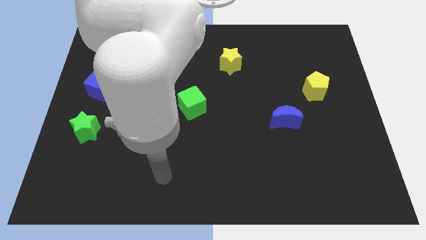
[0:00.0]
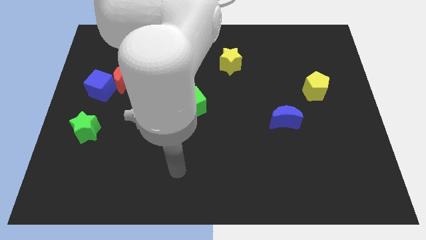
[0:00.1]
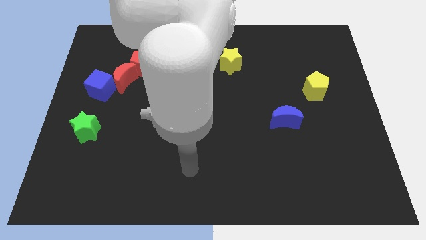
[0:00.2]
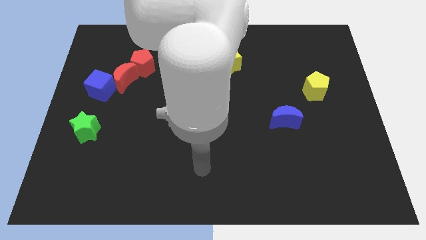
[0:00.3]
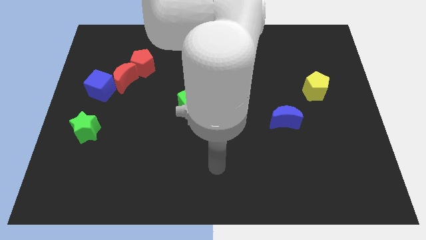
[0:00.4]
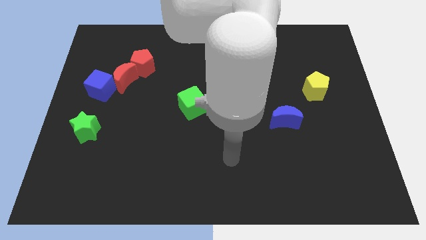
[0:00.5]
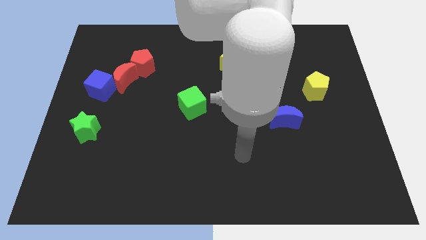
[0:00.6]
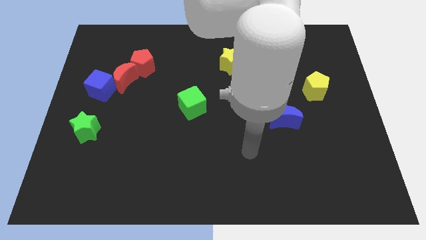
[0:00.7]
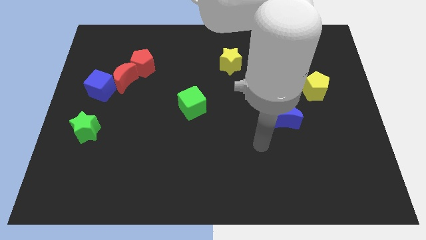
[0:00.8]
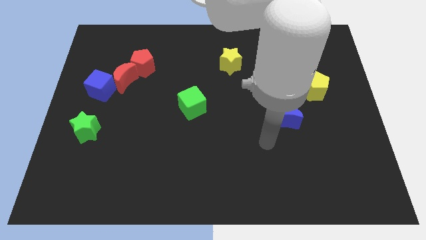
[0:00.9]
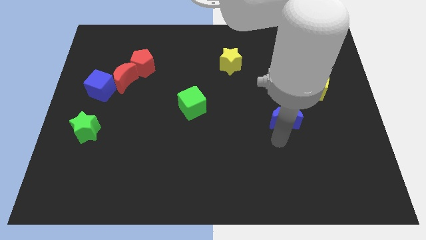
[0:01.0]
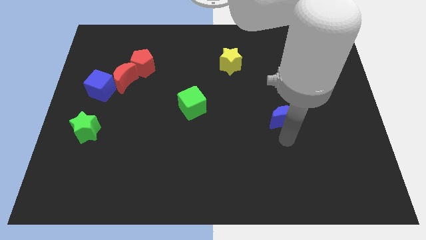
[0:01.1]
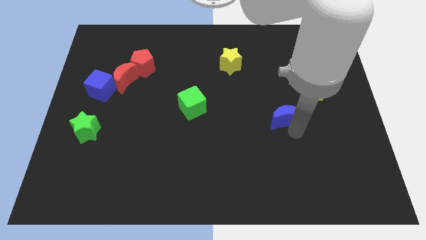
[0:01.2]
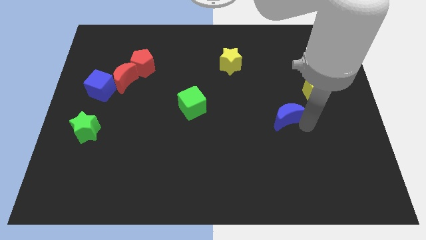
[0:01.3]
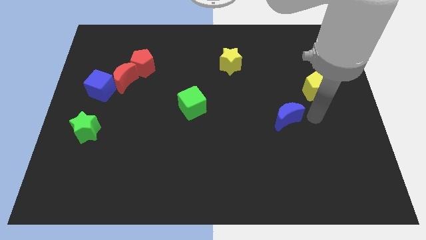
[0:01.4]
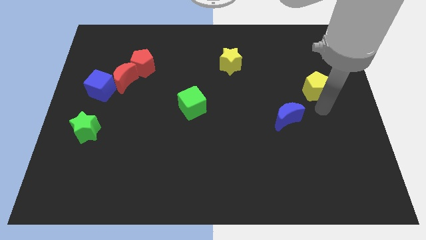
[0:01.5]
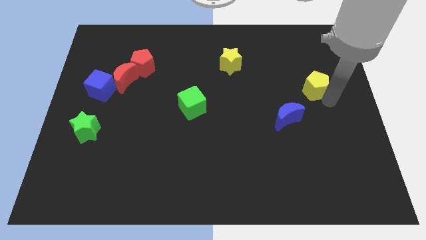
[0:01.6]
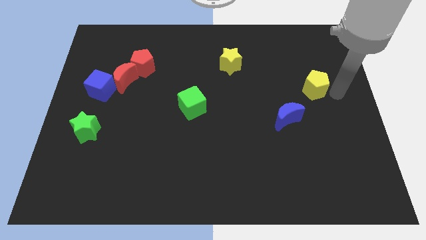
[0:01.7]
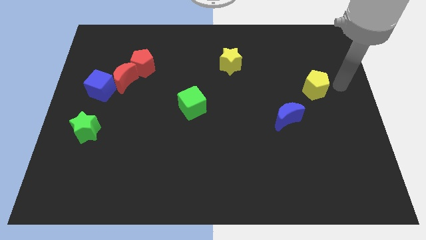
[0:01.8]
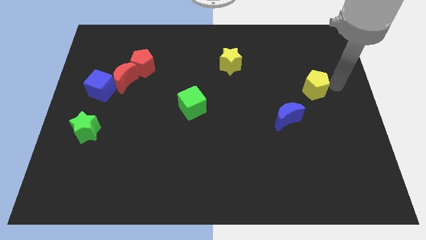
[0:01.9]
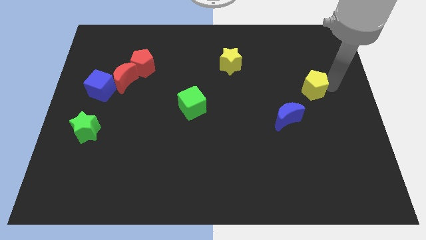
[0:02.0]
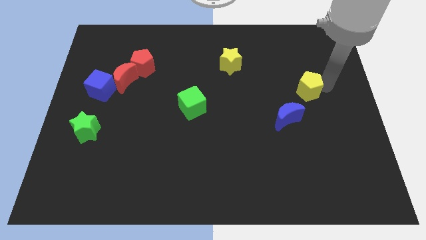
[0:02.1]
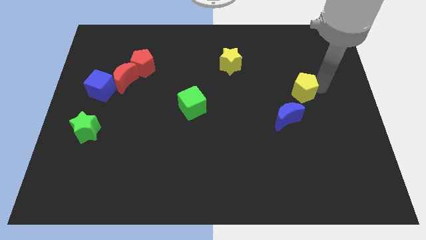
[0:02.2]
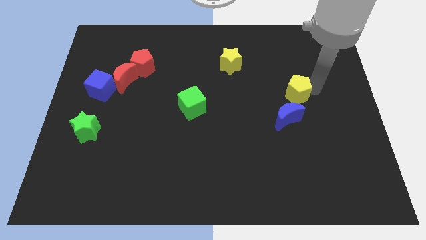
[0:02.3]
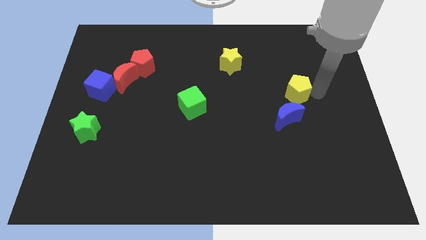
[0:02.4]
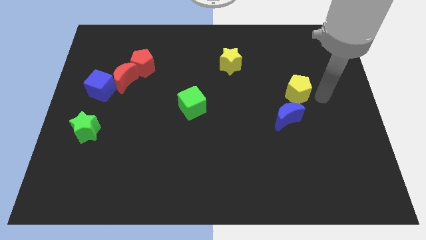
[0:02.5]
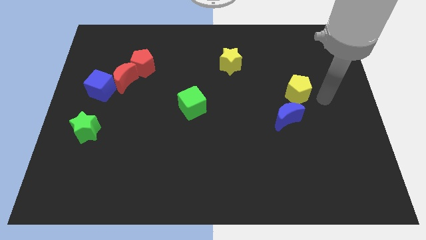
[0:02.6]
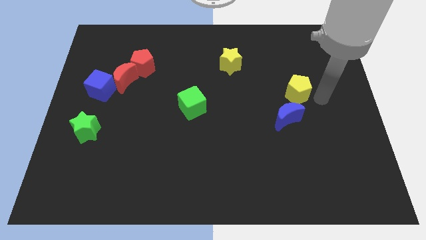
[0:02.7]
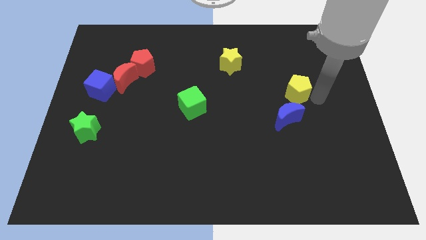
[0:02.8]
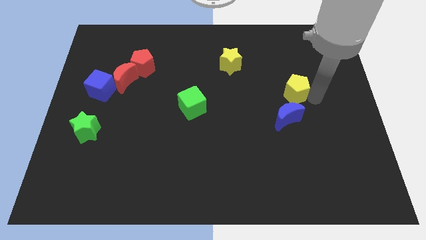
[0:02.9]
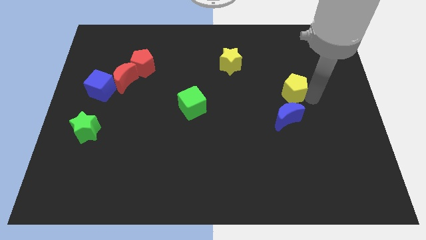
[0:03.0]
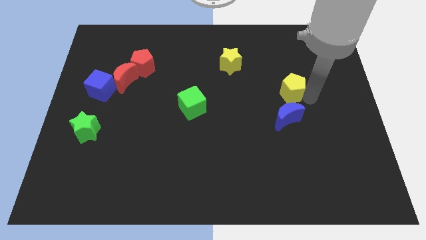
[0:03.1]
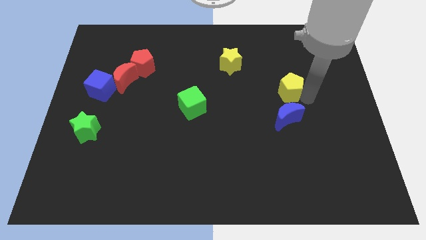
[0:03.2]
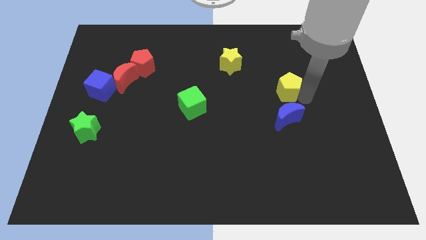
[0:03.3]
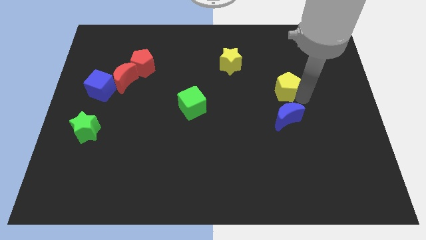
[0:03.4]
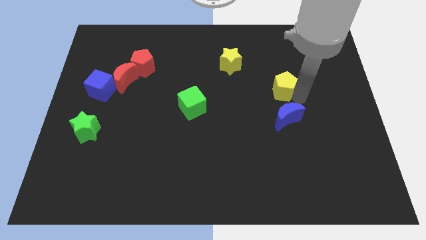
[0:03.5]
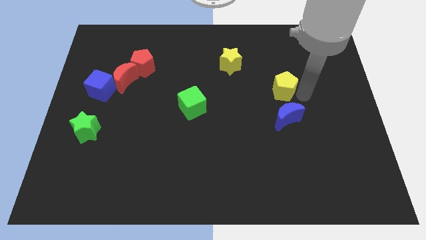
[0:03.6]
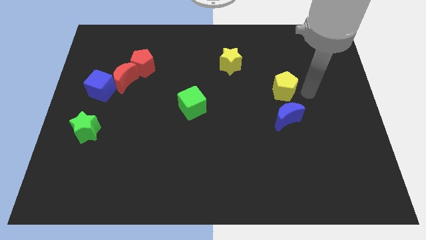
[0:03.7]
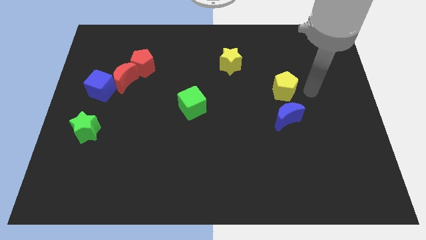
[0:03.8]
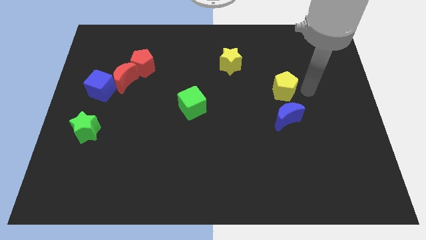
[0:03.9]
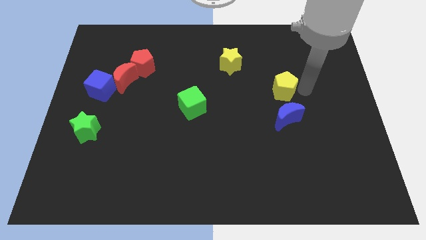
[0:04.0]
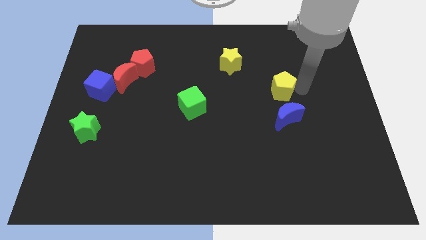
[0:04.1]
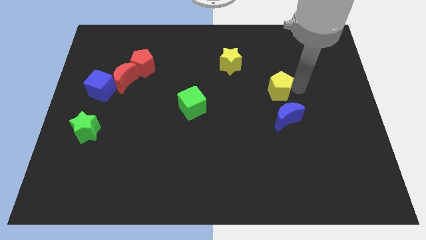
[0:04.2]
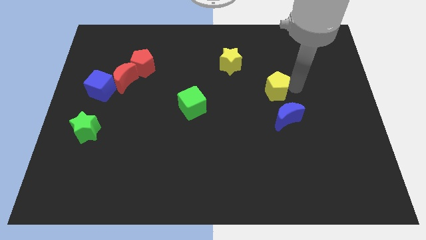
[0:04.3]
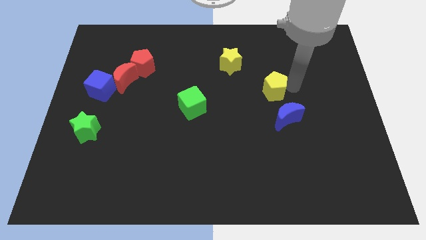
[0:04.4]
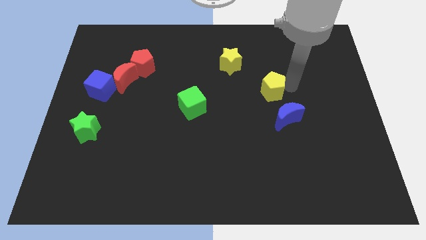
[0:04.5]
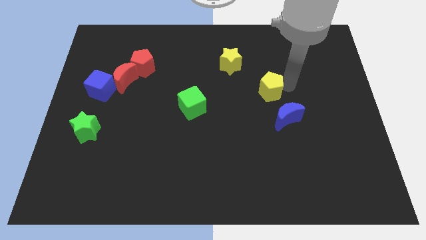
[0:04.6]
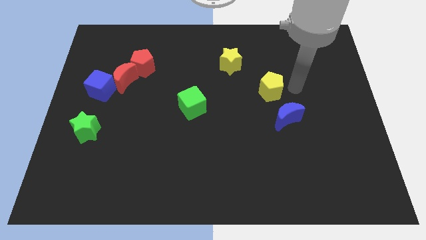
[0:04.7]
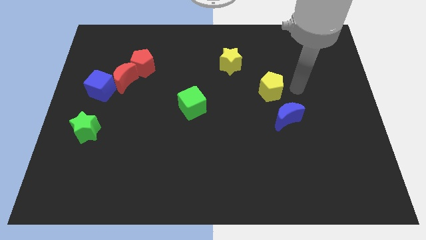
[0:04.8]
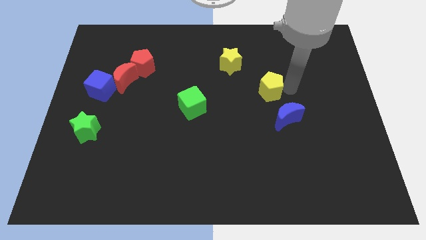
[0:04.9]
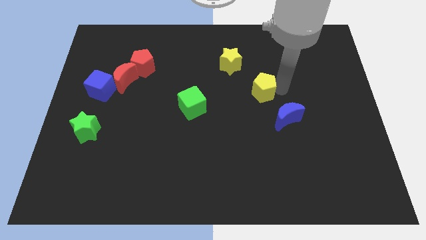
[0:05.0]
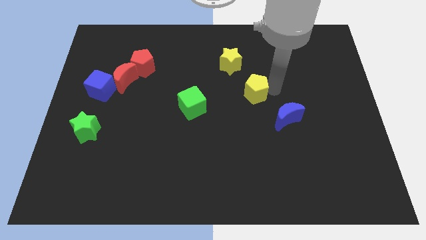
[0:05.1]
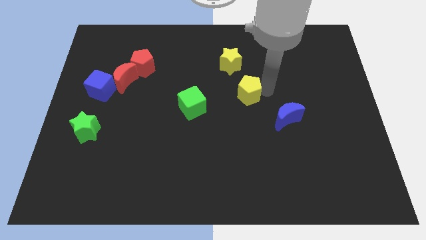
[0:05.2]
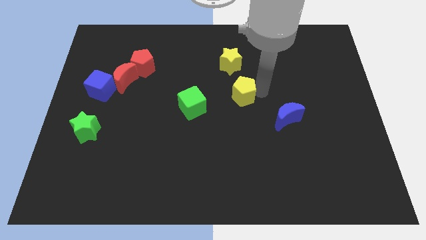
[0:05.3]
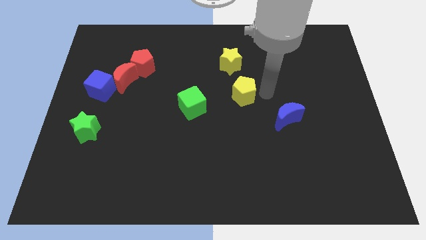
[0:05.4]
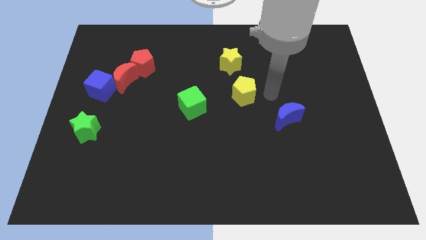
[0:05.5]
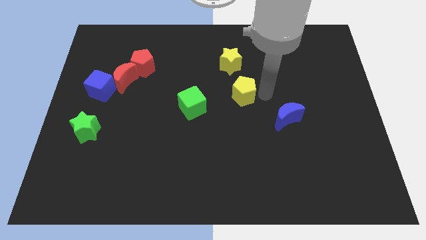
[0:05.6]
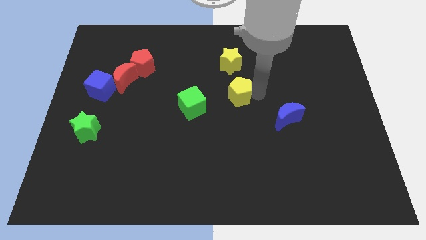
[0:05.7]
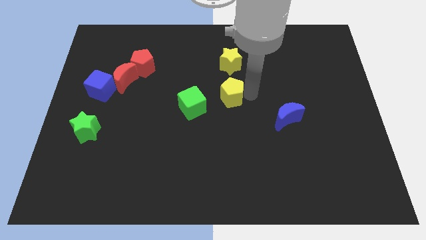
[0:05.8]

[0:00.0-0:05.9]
move the yellow pentagon left

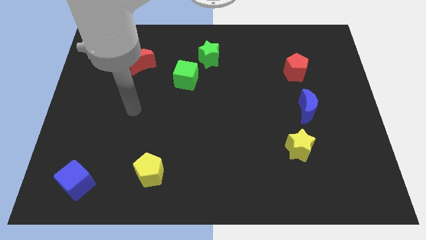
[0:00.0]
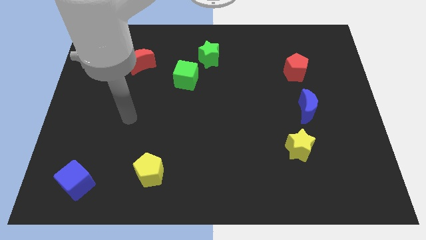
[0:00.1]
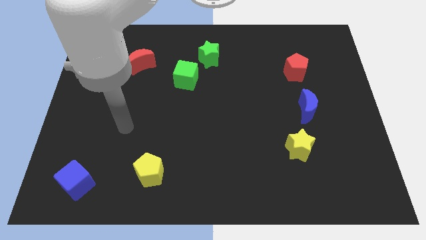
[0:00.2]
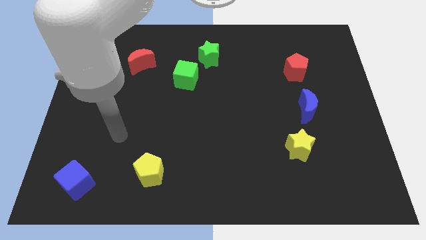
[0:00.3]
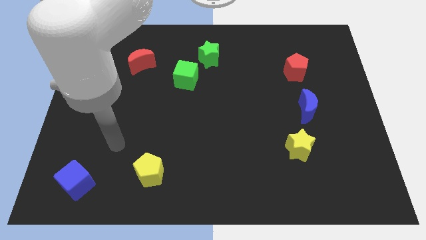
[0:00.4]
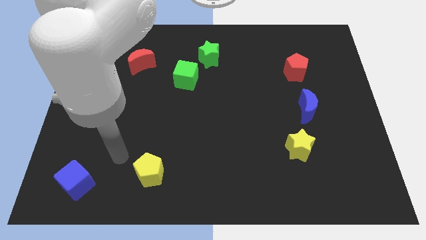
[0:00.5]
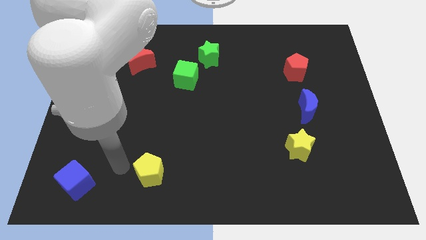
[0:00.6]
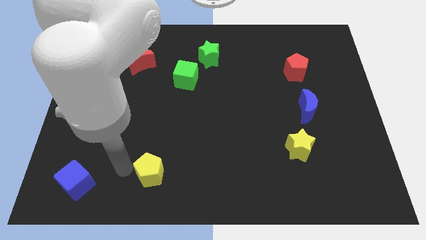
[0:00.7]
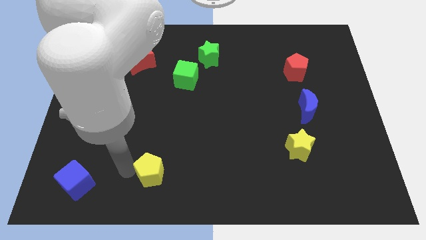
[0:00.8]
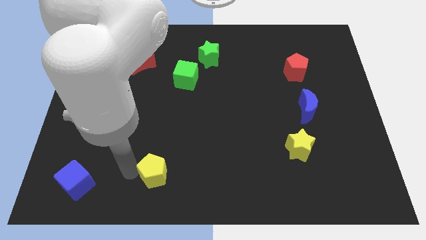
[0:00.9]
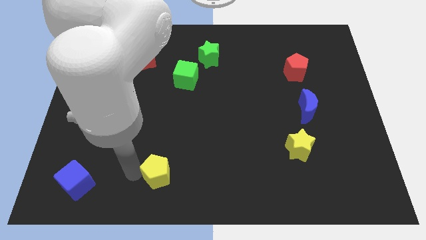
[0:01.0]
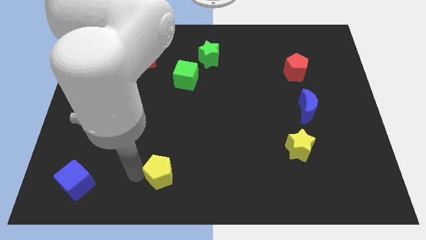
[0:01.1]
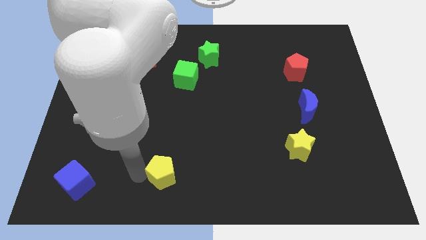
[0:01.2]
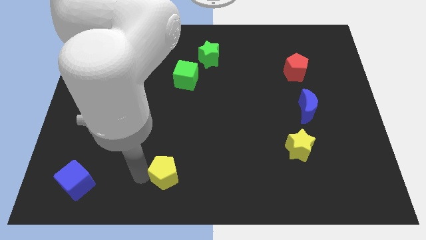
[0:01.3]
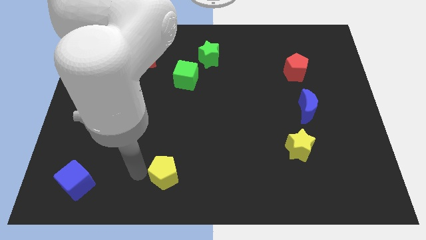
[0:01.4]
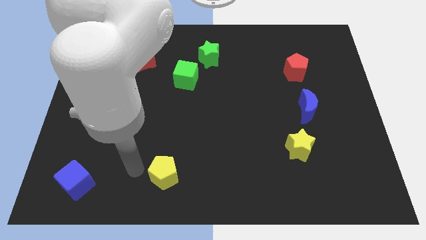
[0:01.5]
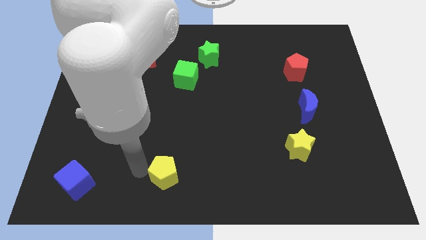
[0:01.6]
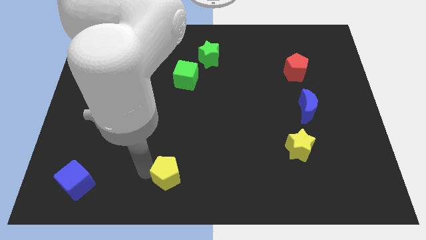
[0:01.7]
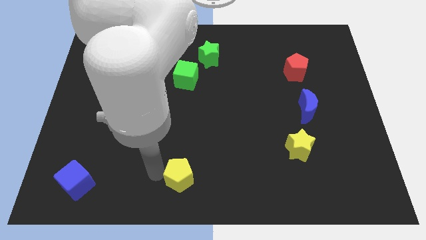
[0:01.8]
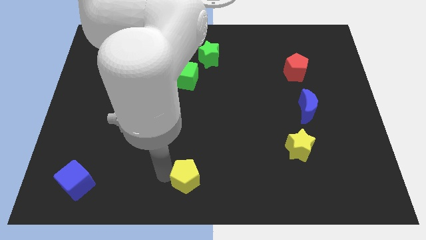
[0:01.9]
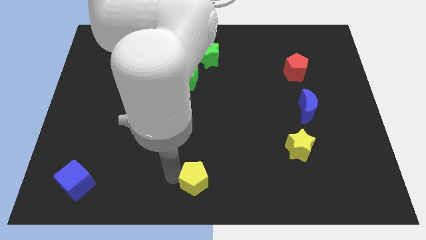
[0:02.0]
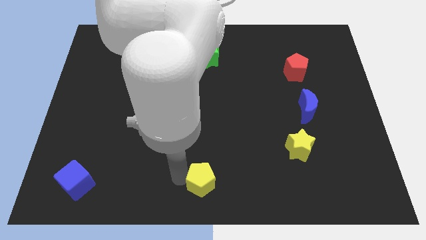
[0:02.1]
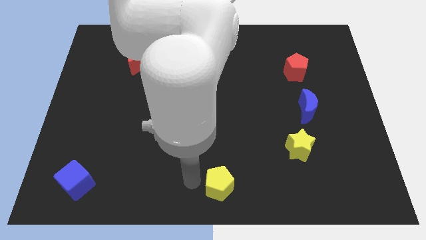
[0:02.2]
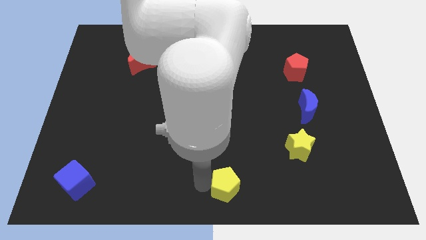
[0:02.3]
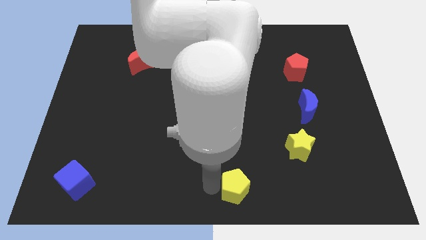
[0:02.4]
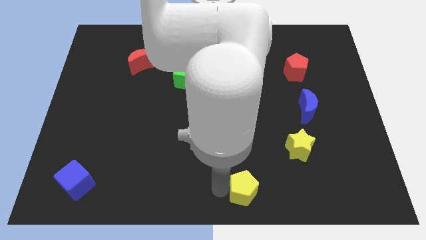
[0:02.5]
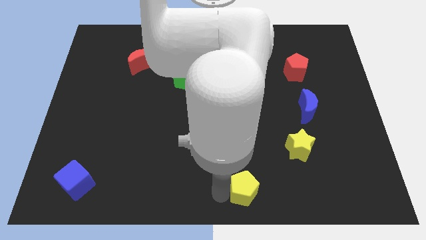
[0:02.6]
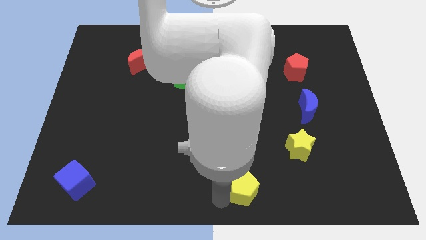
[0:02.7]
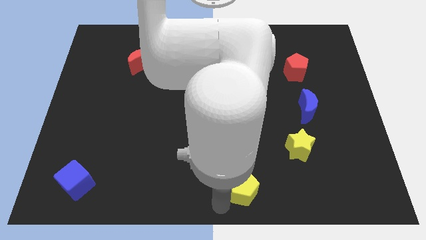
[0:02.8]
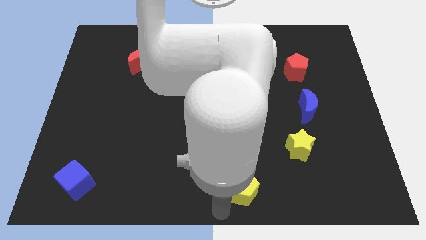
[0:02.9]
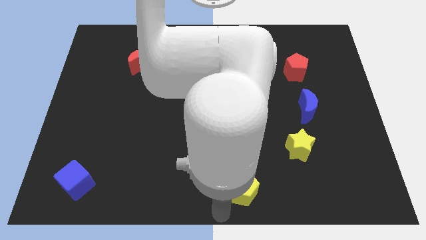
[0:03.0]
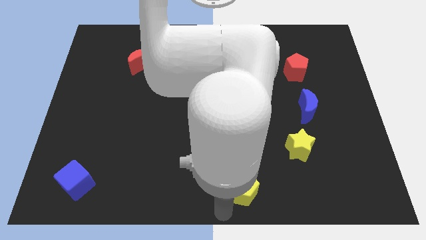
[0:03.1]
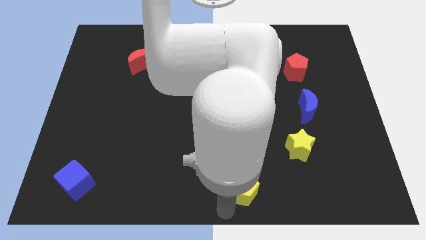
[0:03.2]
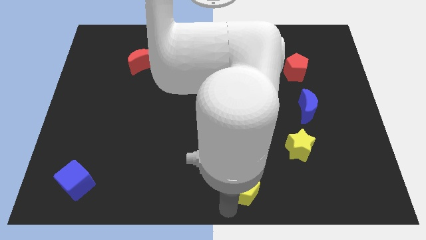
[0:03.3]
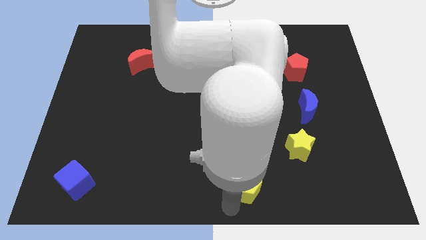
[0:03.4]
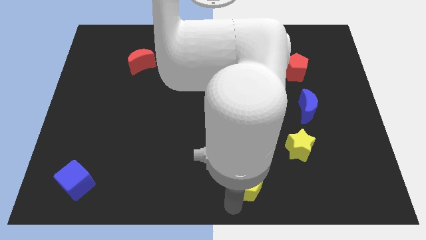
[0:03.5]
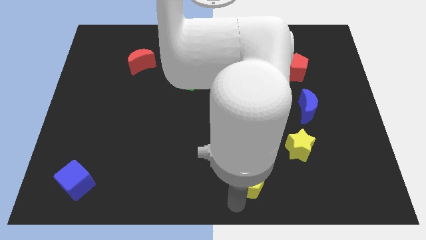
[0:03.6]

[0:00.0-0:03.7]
push the yellow pentagon right
